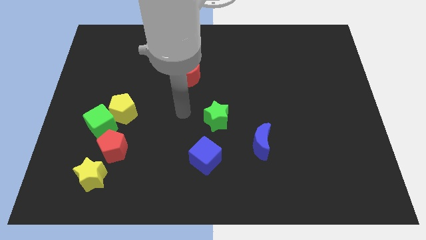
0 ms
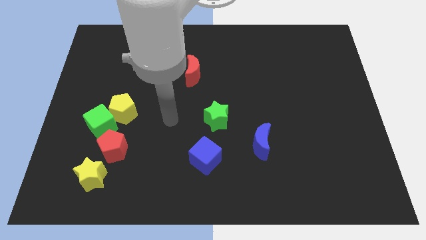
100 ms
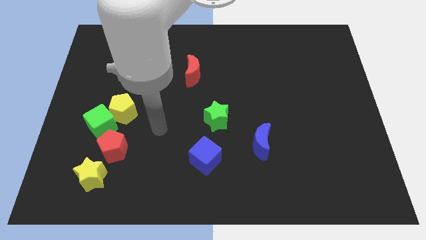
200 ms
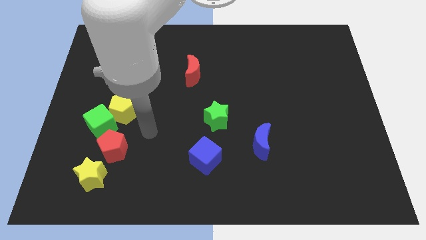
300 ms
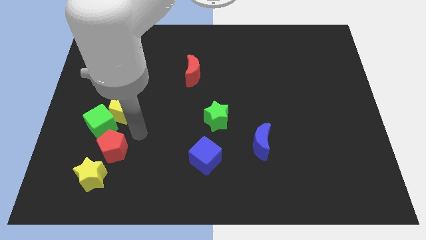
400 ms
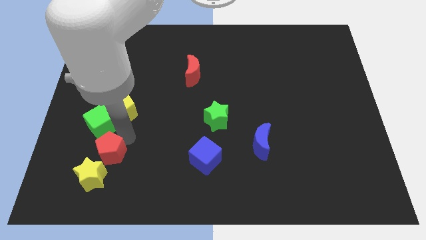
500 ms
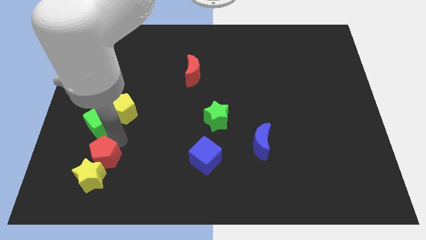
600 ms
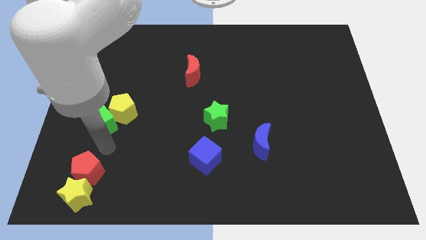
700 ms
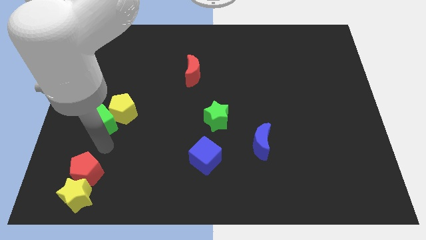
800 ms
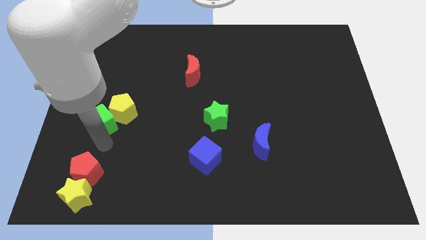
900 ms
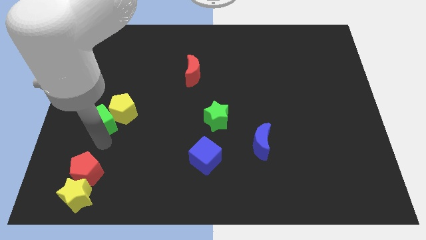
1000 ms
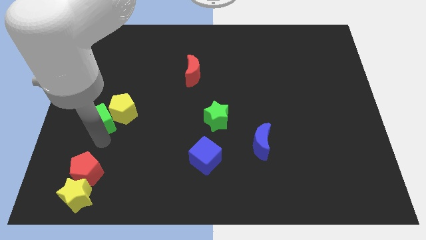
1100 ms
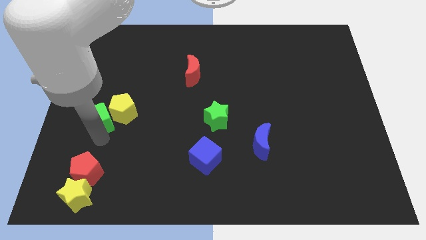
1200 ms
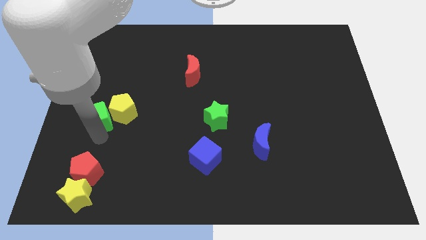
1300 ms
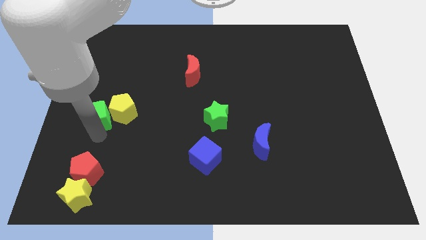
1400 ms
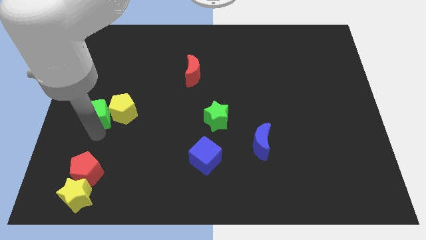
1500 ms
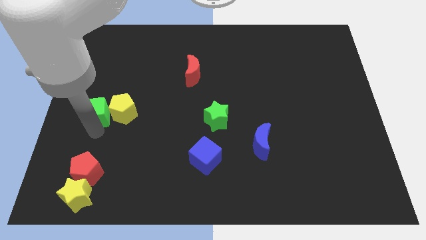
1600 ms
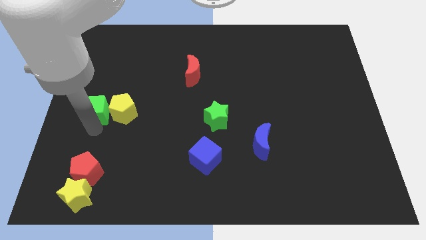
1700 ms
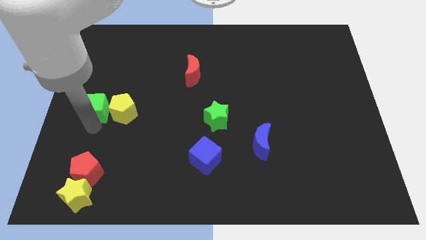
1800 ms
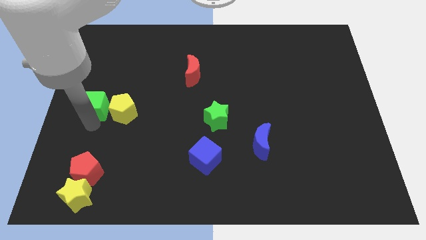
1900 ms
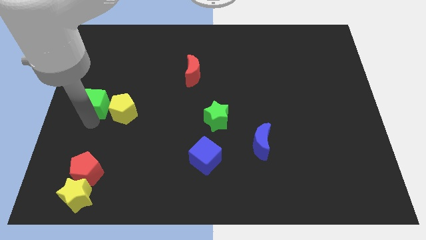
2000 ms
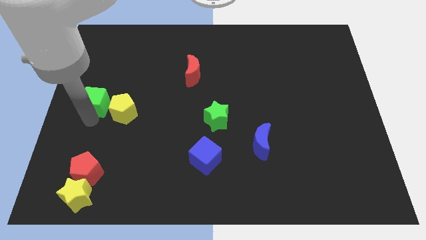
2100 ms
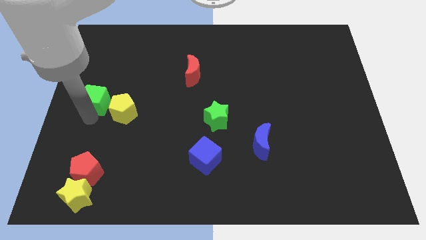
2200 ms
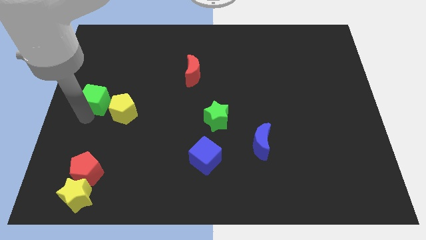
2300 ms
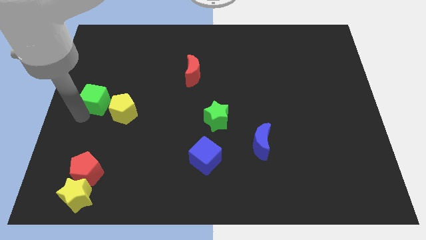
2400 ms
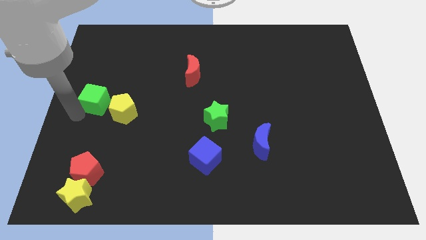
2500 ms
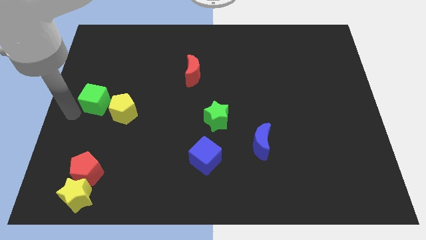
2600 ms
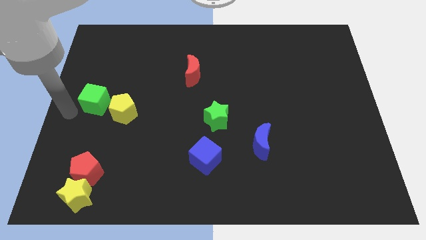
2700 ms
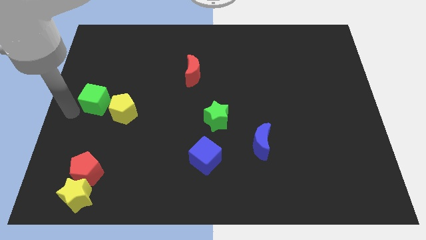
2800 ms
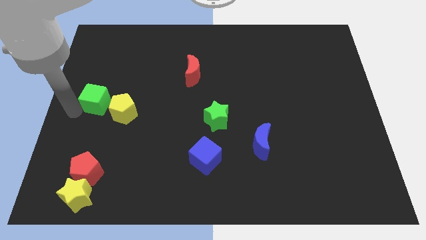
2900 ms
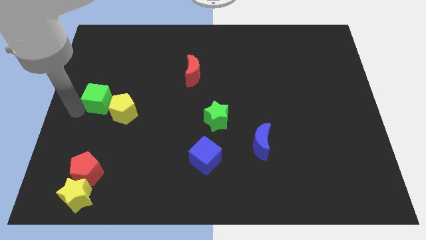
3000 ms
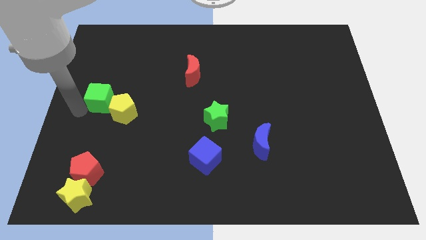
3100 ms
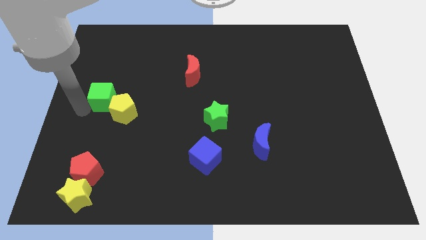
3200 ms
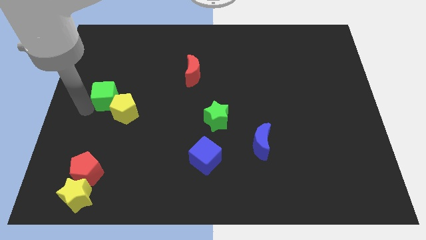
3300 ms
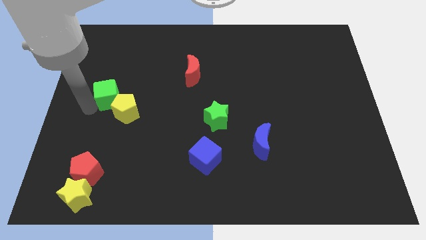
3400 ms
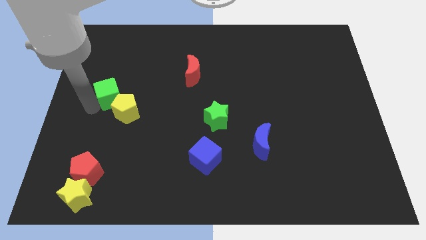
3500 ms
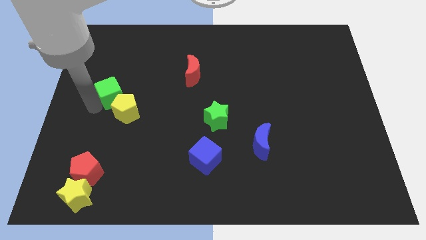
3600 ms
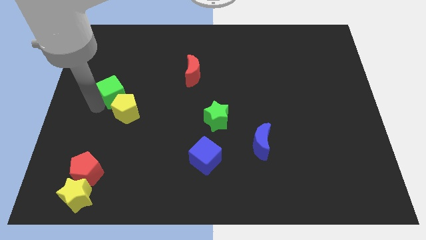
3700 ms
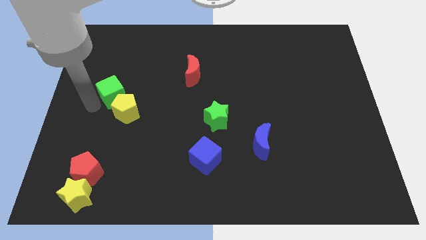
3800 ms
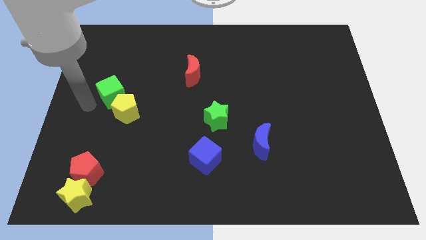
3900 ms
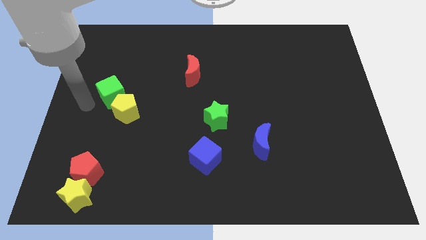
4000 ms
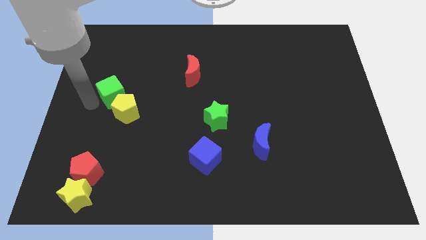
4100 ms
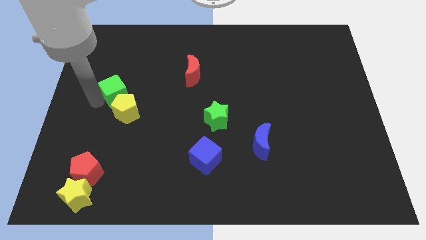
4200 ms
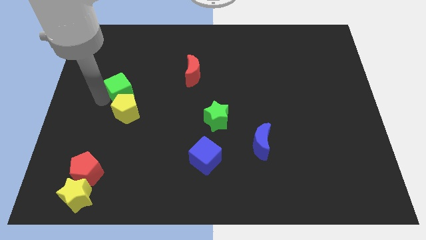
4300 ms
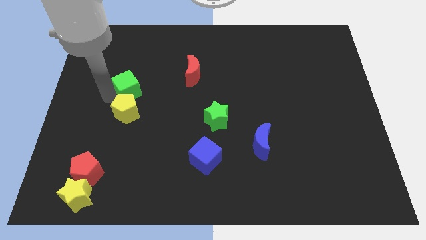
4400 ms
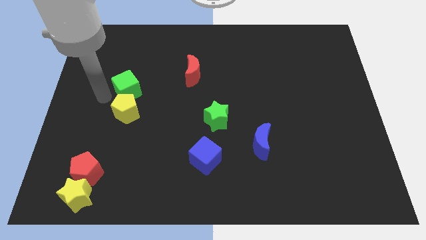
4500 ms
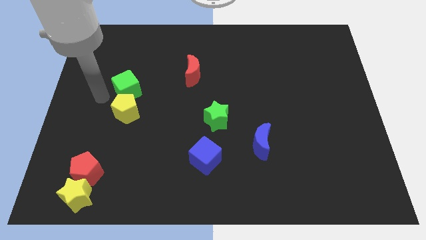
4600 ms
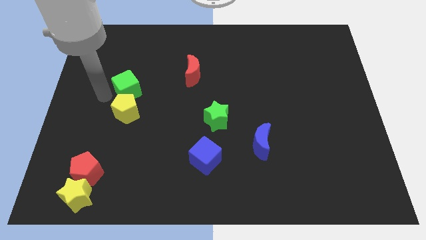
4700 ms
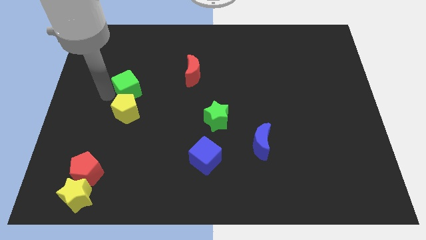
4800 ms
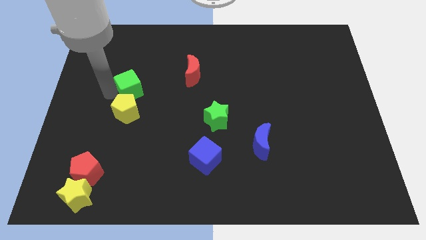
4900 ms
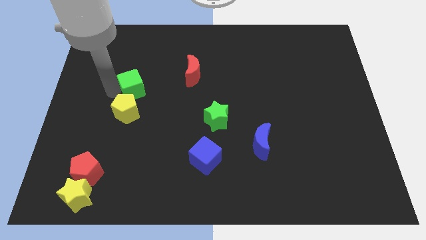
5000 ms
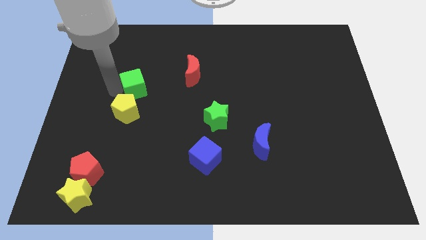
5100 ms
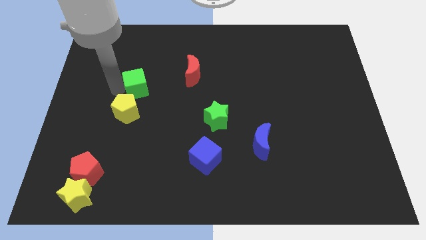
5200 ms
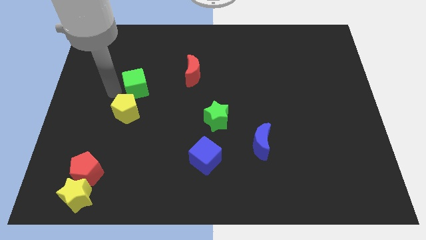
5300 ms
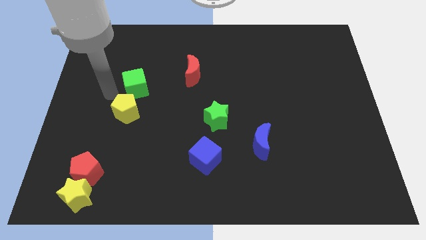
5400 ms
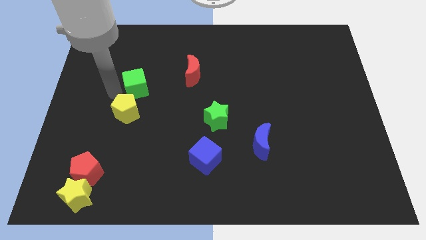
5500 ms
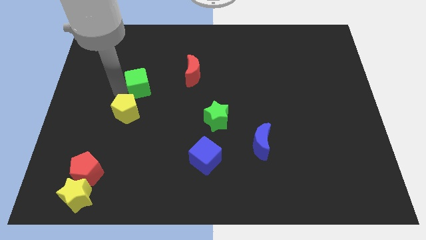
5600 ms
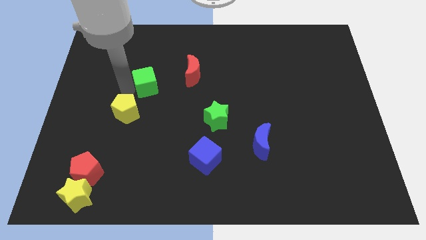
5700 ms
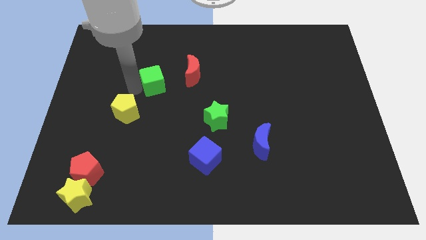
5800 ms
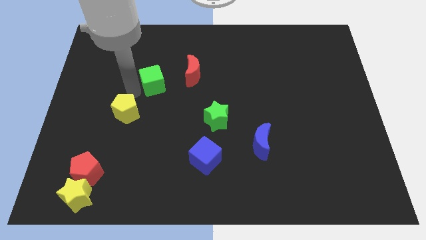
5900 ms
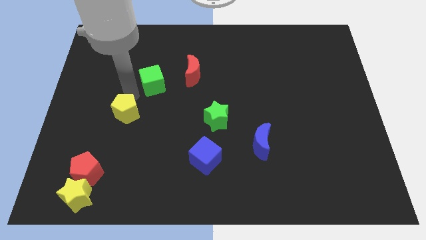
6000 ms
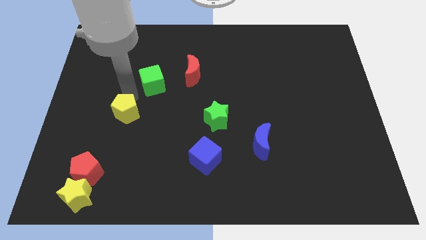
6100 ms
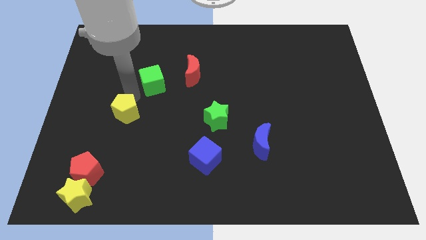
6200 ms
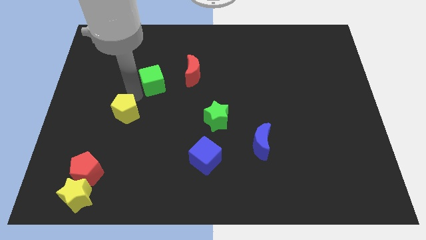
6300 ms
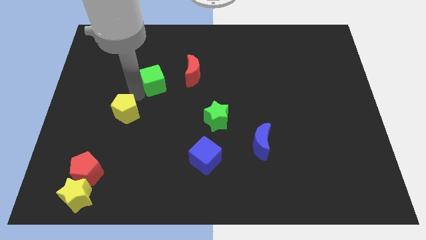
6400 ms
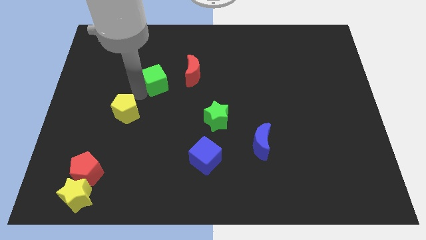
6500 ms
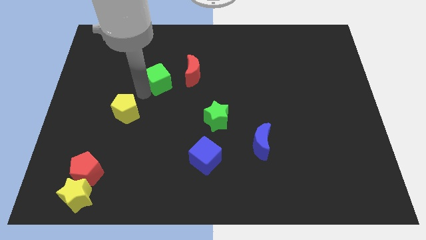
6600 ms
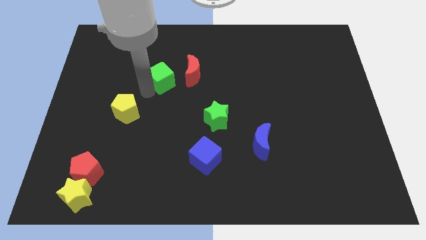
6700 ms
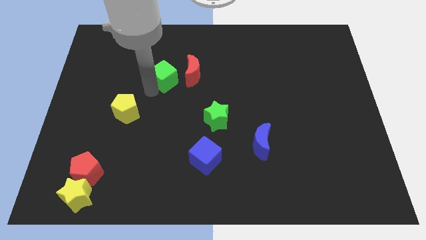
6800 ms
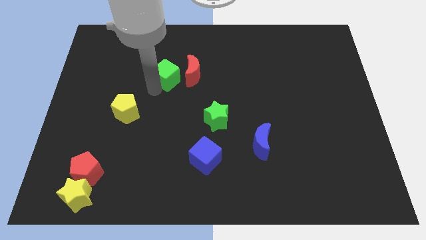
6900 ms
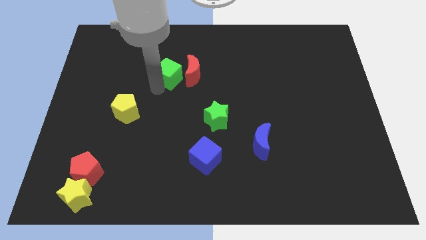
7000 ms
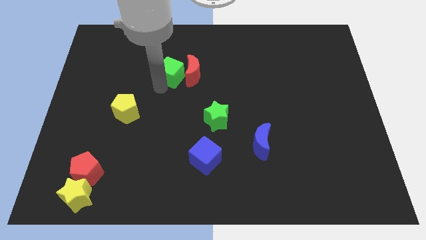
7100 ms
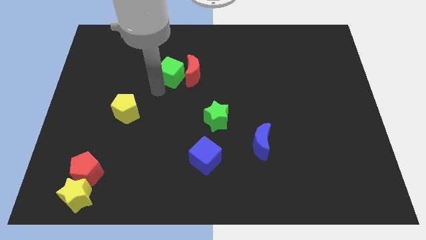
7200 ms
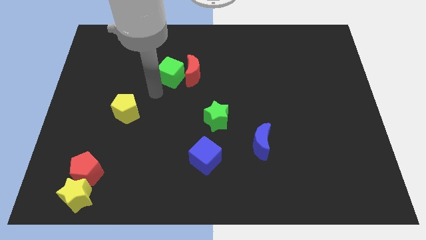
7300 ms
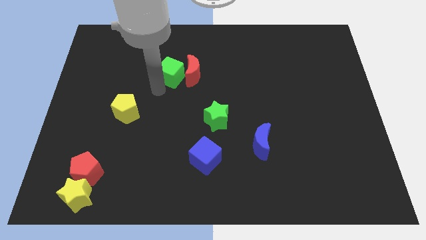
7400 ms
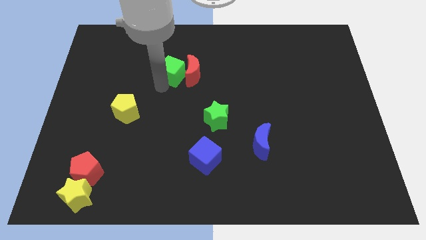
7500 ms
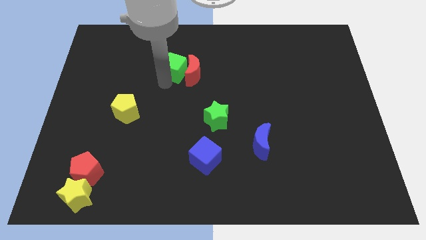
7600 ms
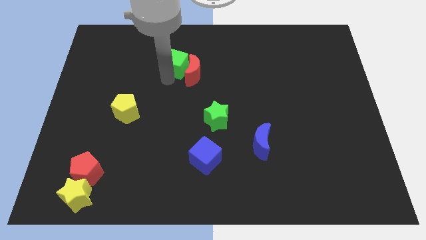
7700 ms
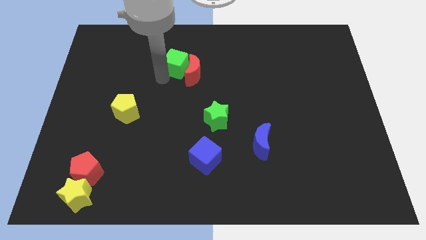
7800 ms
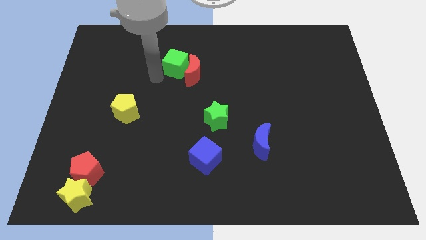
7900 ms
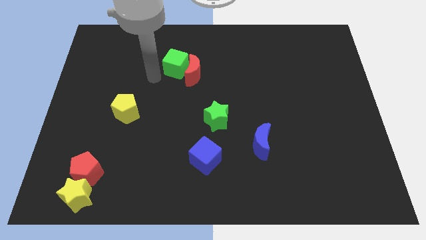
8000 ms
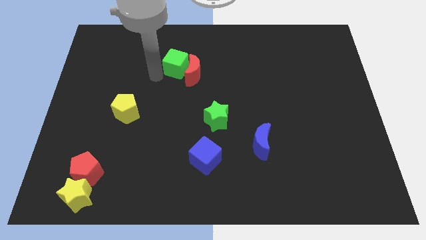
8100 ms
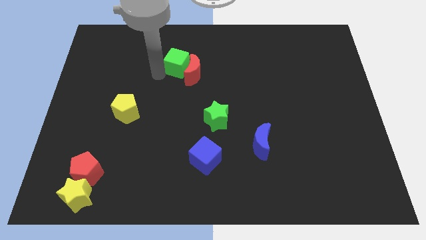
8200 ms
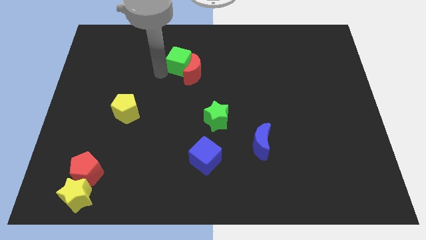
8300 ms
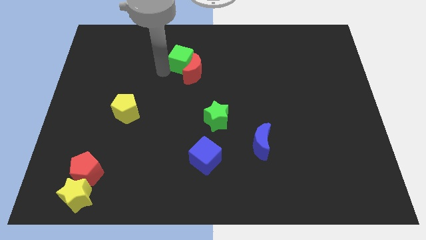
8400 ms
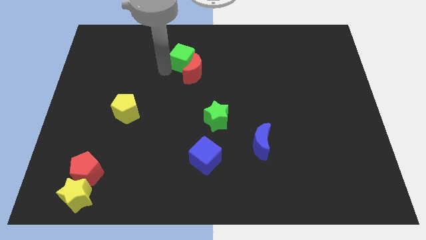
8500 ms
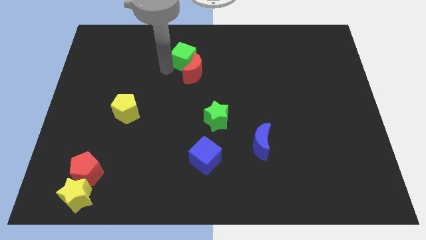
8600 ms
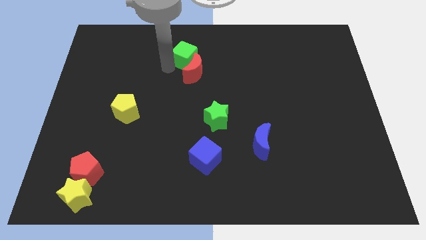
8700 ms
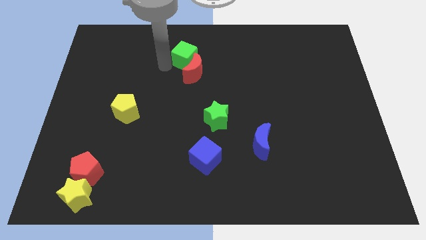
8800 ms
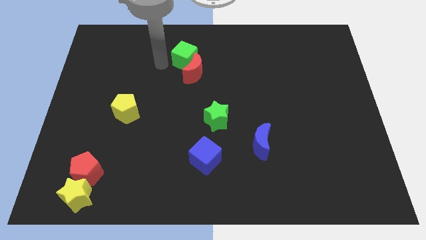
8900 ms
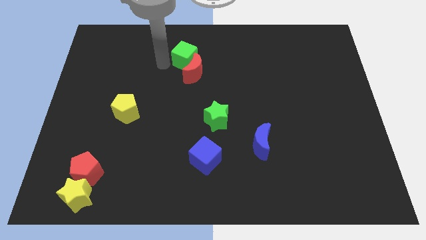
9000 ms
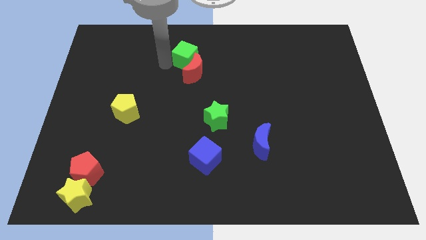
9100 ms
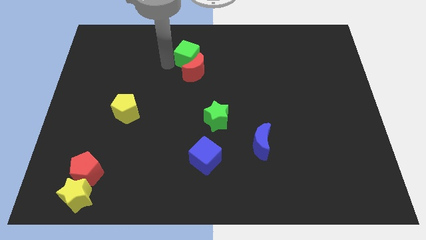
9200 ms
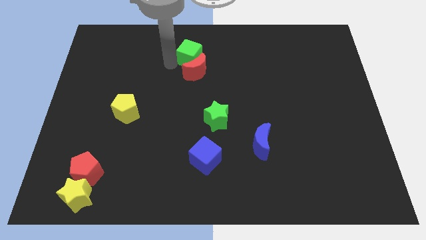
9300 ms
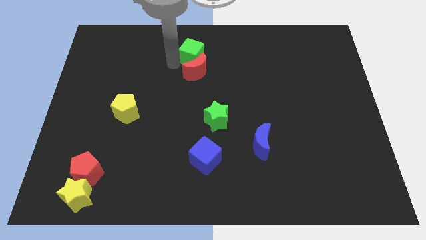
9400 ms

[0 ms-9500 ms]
slide the green cube to the top right side of the red moon
